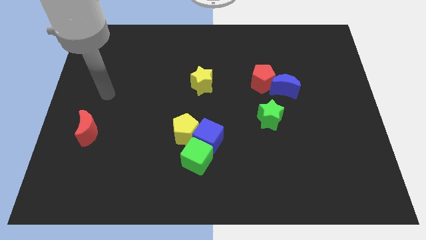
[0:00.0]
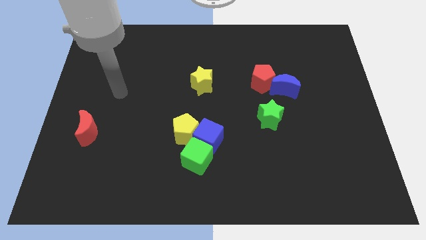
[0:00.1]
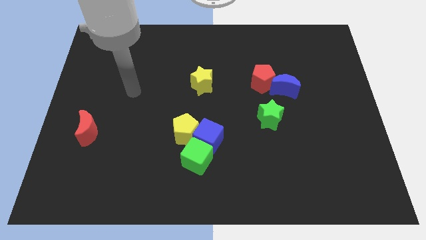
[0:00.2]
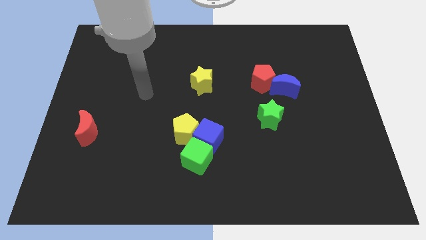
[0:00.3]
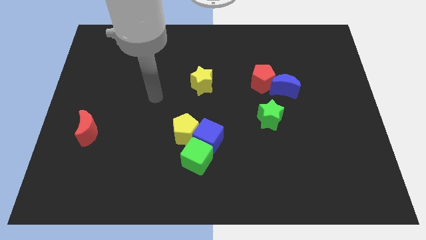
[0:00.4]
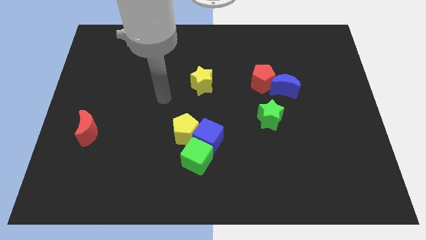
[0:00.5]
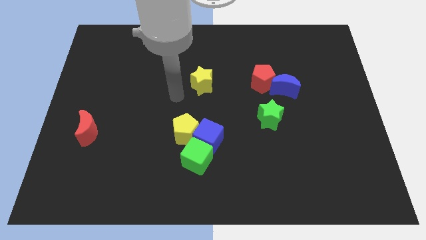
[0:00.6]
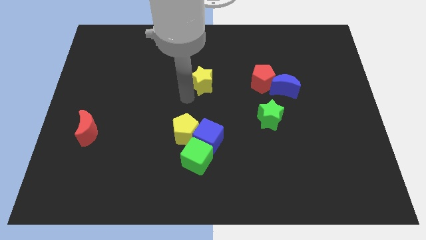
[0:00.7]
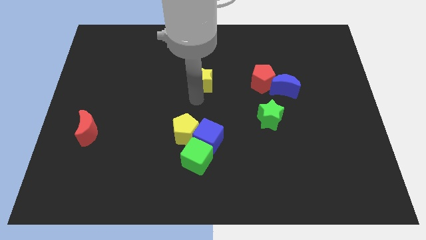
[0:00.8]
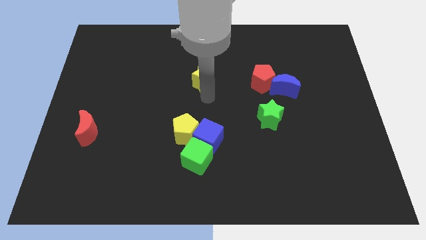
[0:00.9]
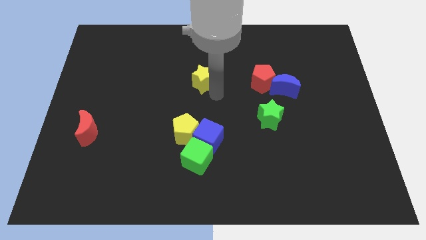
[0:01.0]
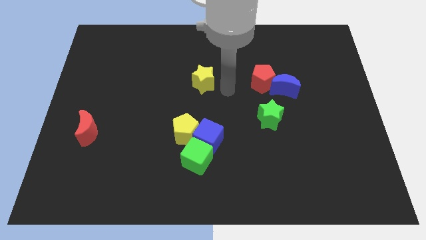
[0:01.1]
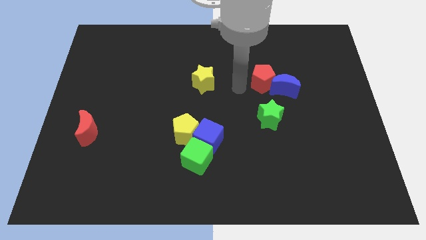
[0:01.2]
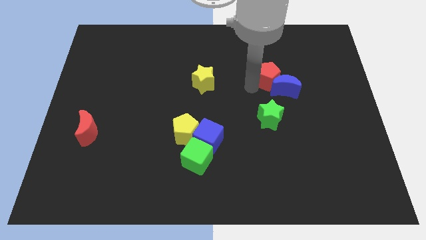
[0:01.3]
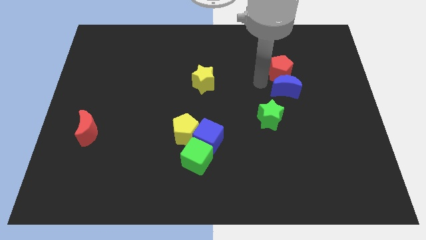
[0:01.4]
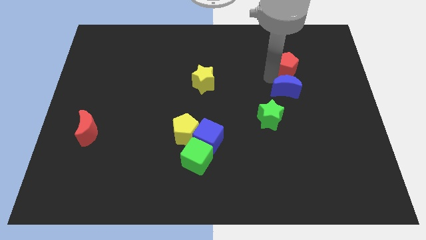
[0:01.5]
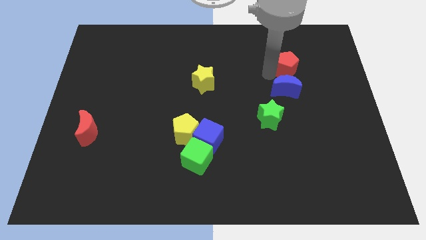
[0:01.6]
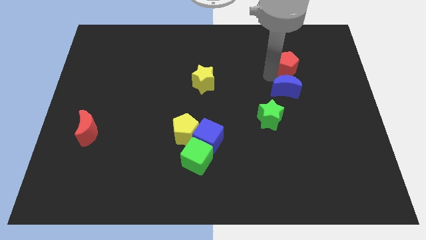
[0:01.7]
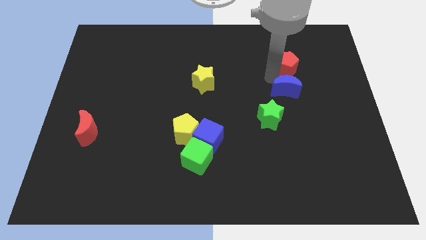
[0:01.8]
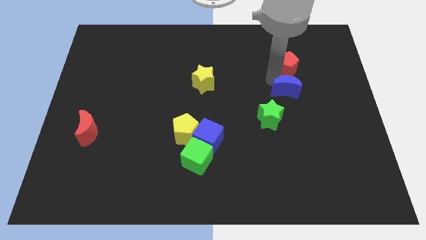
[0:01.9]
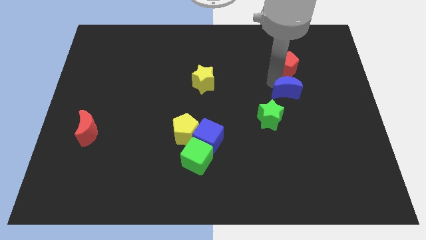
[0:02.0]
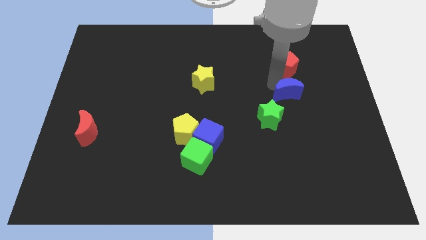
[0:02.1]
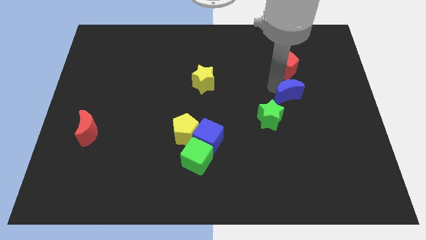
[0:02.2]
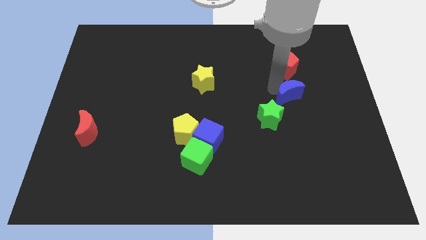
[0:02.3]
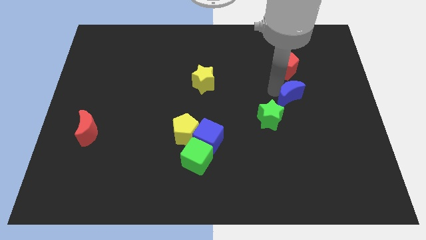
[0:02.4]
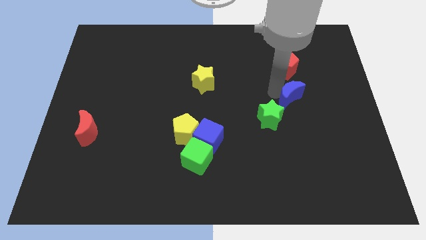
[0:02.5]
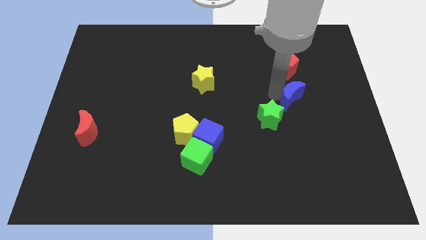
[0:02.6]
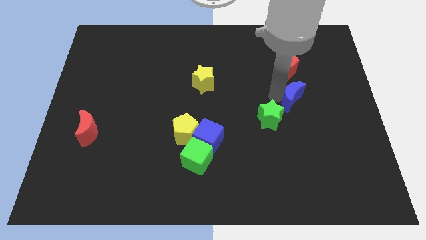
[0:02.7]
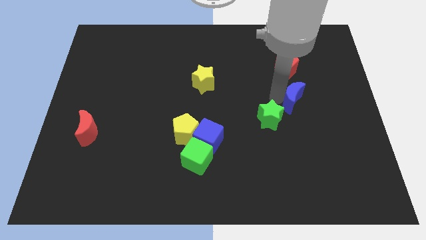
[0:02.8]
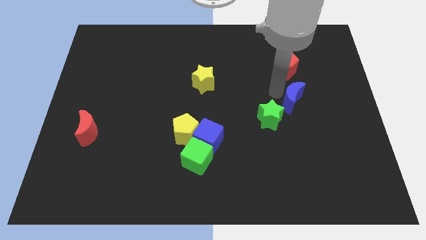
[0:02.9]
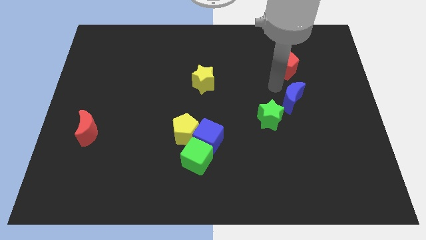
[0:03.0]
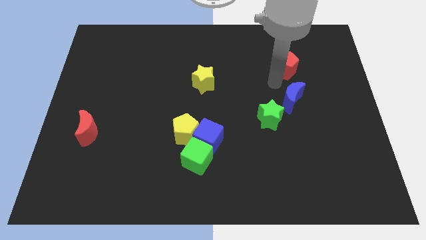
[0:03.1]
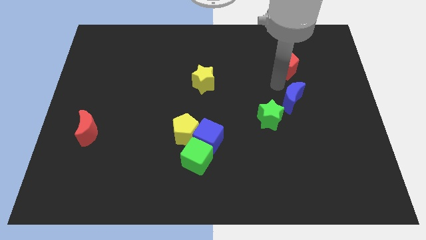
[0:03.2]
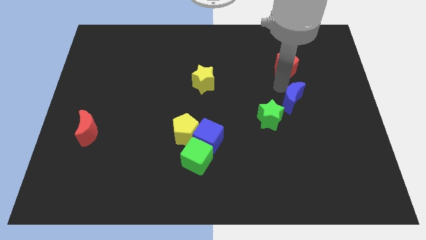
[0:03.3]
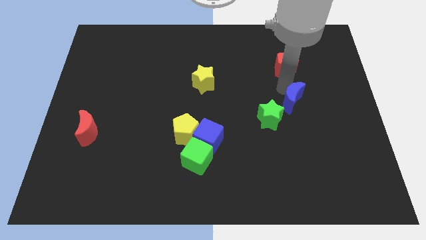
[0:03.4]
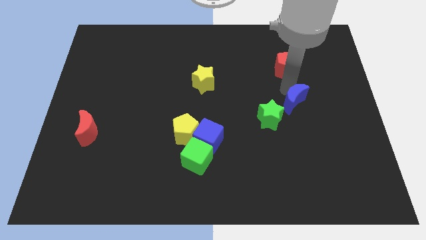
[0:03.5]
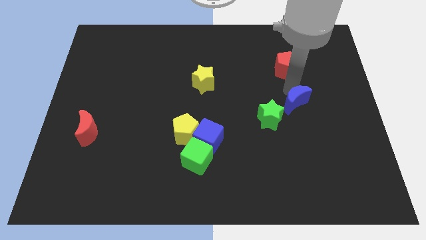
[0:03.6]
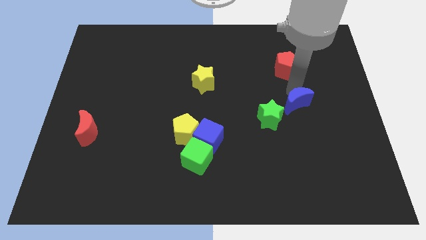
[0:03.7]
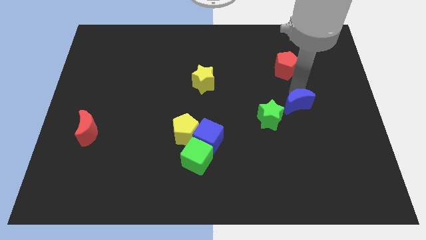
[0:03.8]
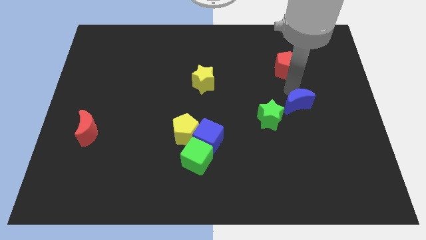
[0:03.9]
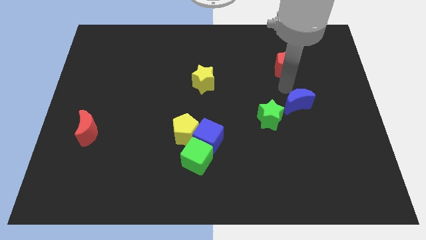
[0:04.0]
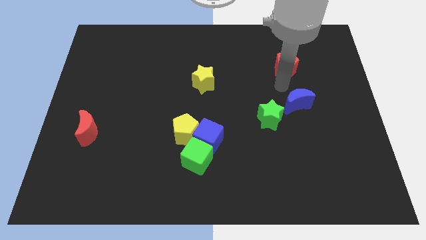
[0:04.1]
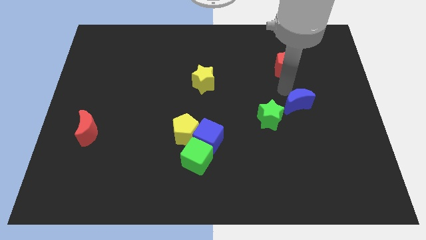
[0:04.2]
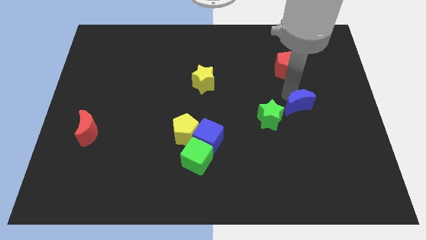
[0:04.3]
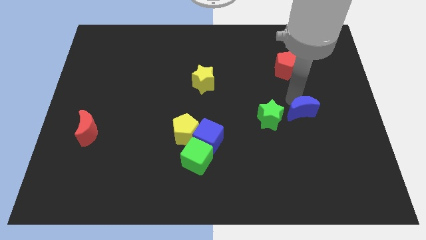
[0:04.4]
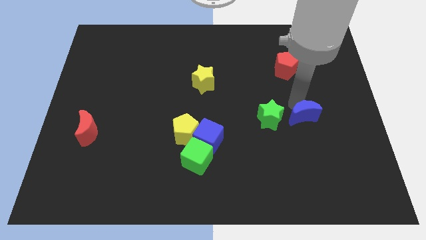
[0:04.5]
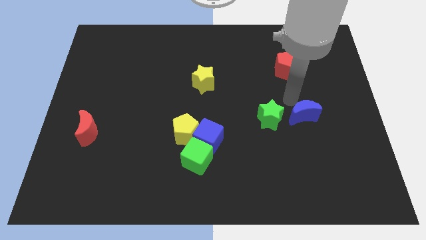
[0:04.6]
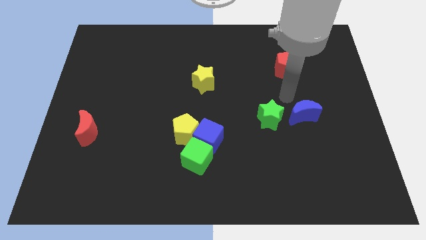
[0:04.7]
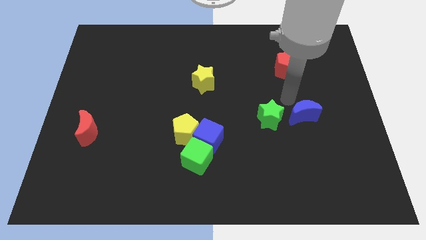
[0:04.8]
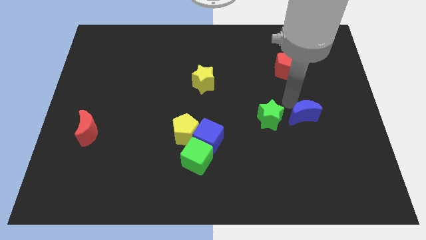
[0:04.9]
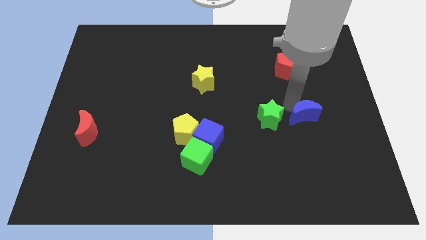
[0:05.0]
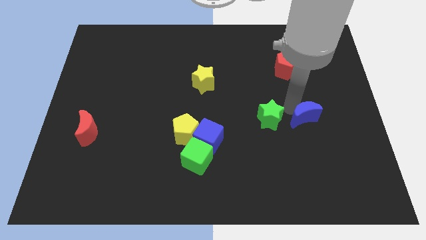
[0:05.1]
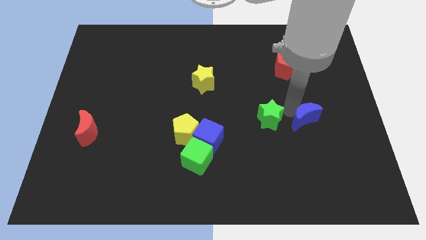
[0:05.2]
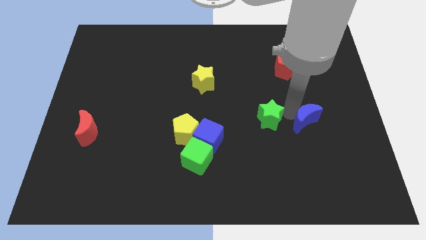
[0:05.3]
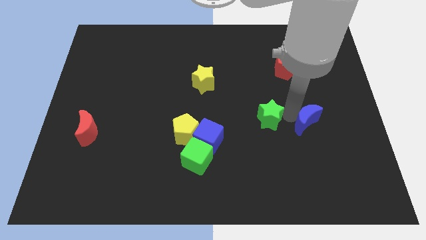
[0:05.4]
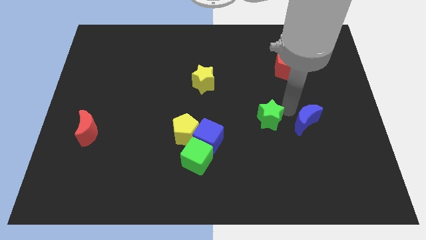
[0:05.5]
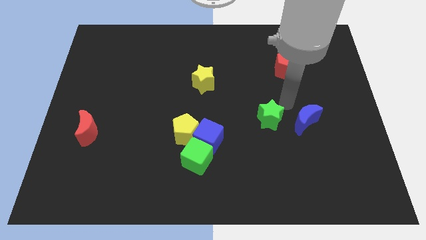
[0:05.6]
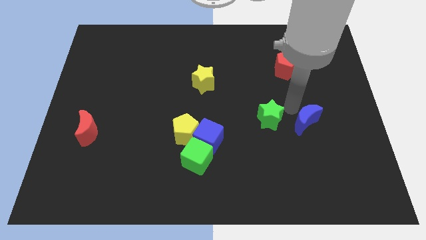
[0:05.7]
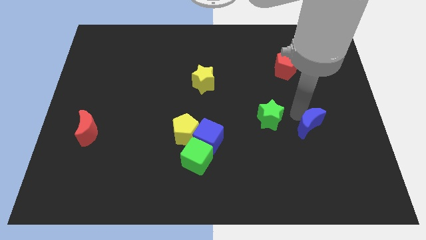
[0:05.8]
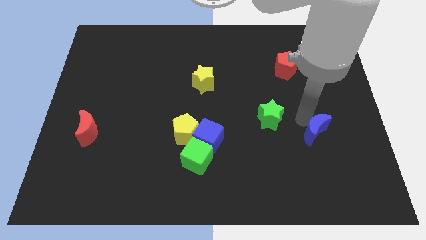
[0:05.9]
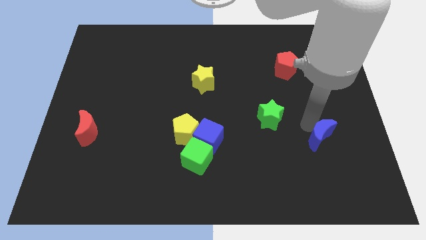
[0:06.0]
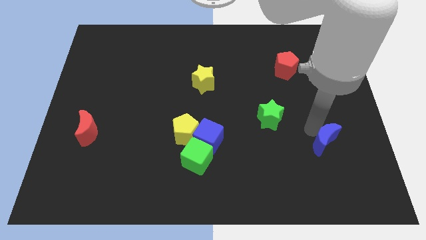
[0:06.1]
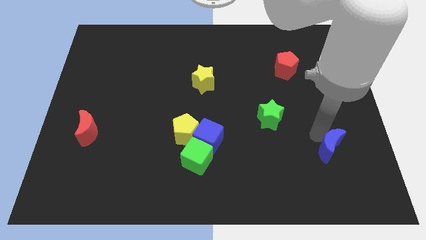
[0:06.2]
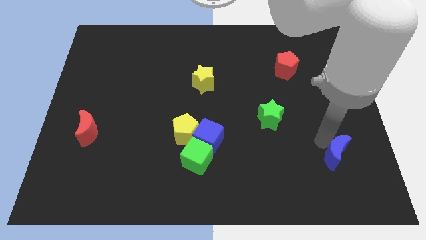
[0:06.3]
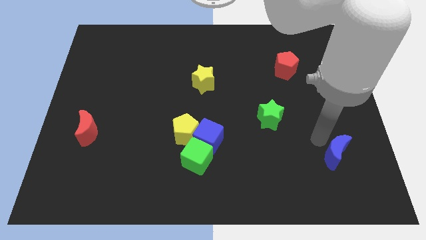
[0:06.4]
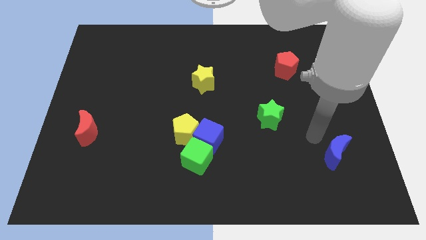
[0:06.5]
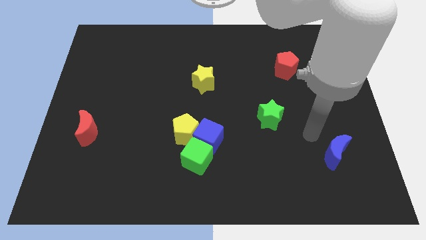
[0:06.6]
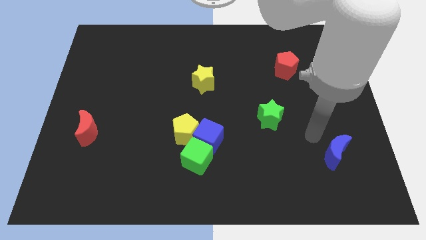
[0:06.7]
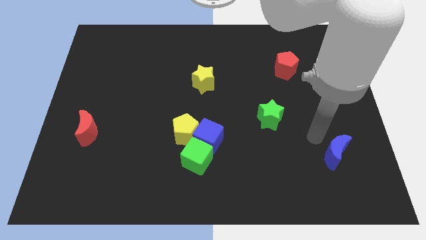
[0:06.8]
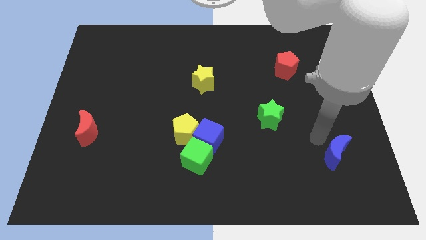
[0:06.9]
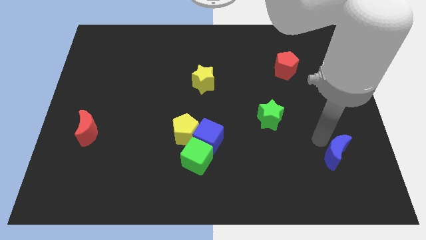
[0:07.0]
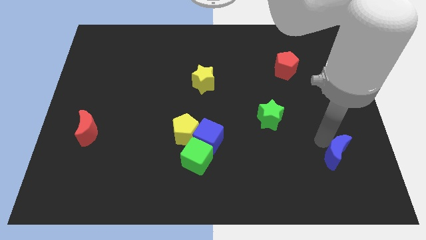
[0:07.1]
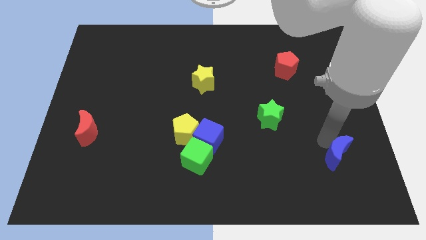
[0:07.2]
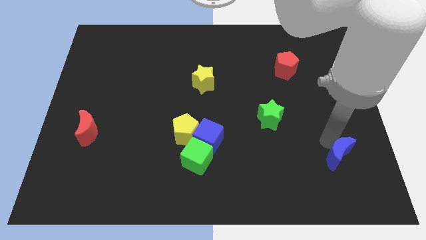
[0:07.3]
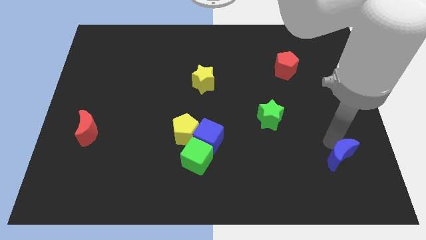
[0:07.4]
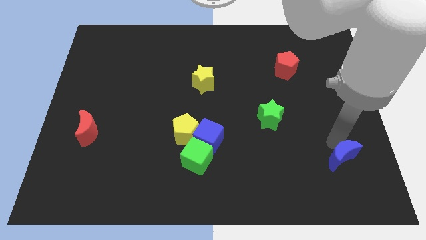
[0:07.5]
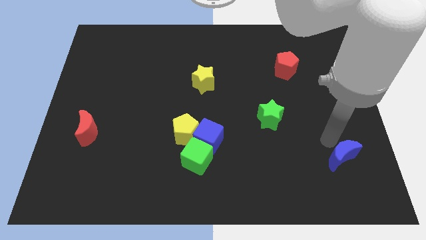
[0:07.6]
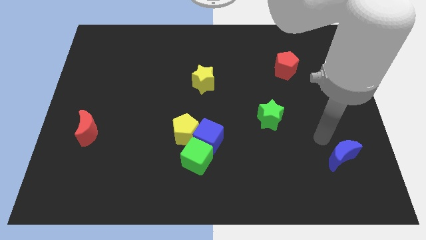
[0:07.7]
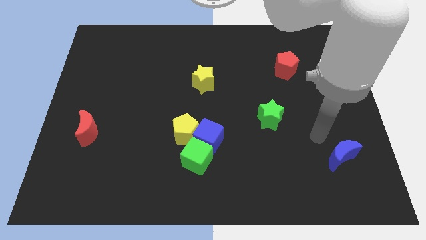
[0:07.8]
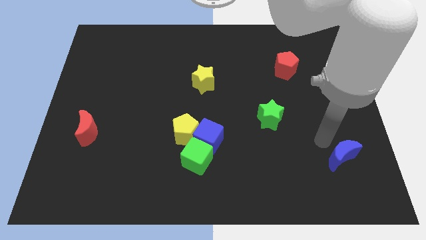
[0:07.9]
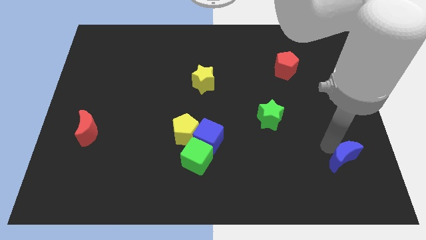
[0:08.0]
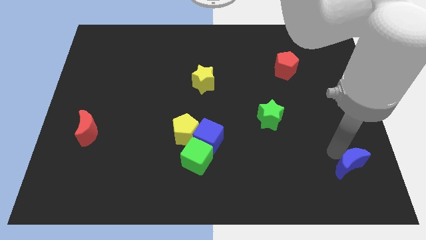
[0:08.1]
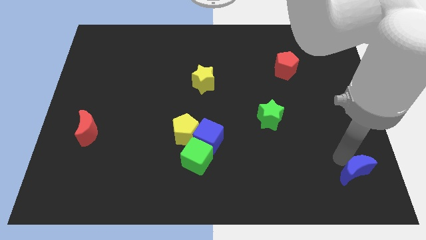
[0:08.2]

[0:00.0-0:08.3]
move the blue moon to the lower right corner
